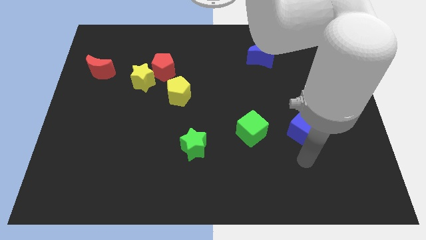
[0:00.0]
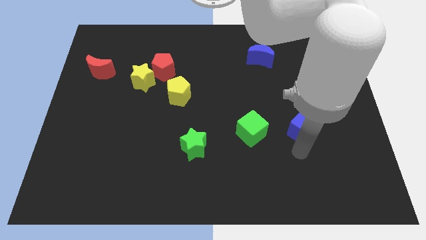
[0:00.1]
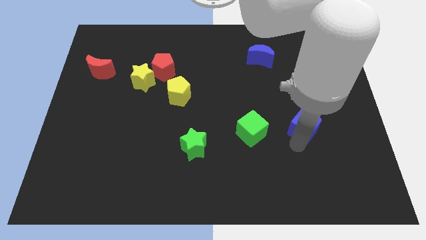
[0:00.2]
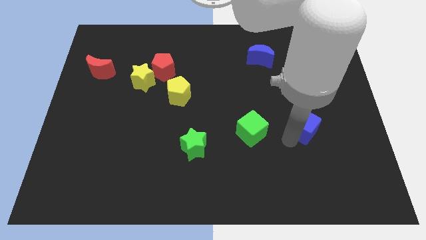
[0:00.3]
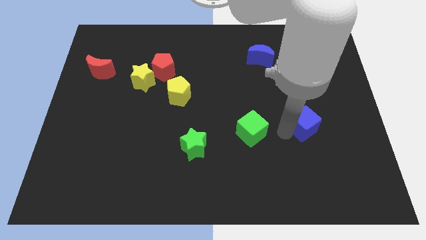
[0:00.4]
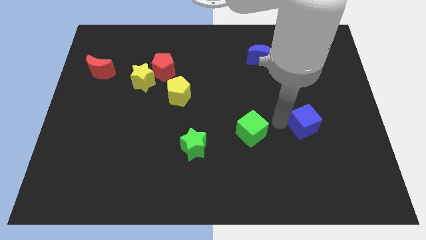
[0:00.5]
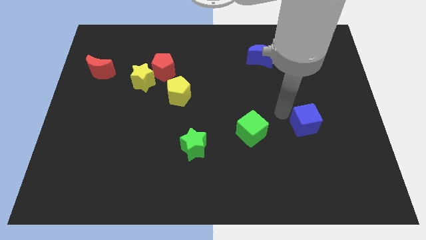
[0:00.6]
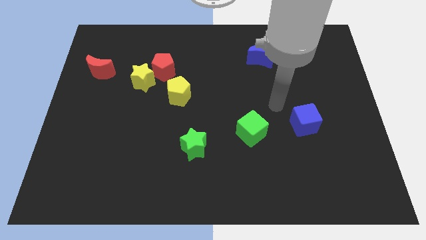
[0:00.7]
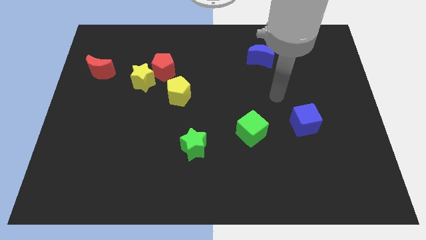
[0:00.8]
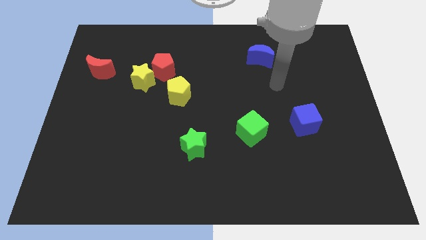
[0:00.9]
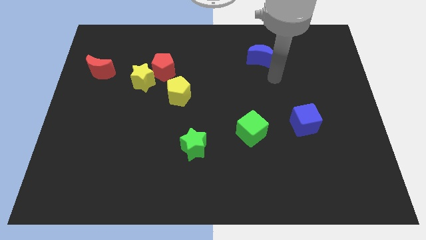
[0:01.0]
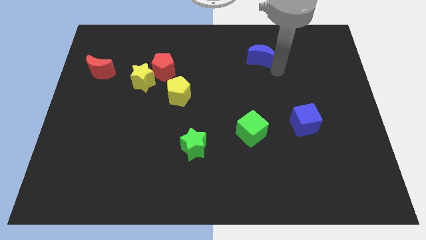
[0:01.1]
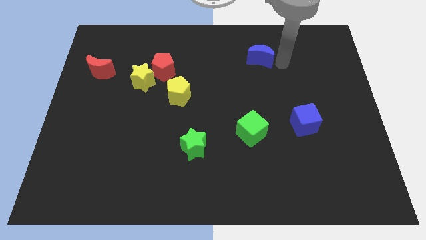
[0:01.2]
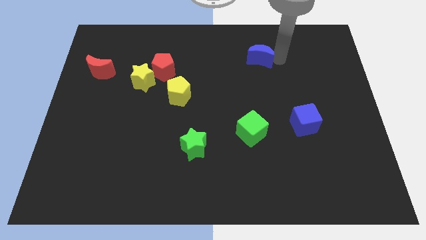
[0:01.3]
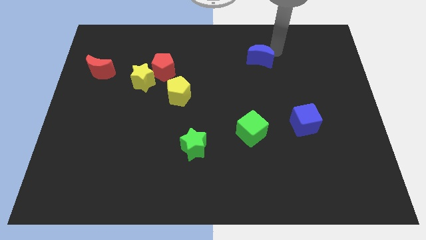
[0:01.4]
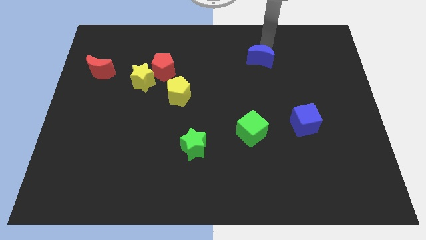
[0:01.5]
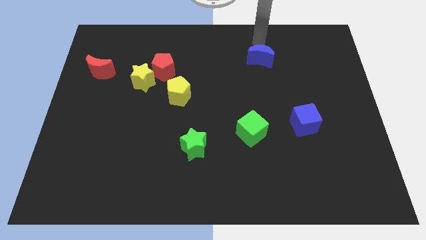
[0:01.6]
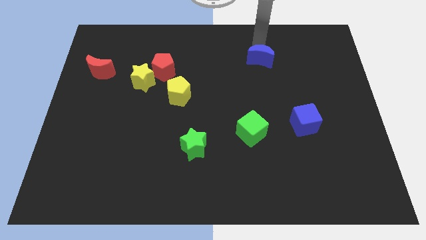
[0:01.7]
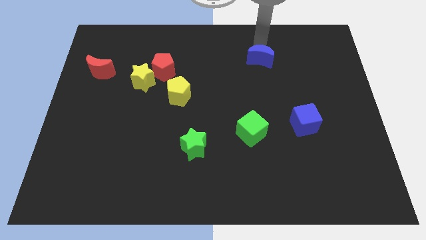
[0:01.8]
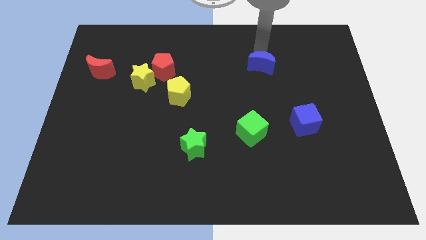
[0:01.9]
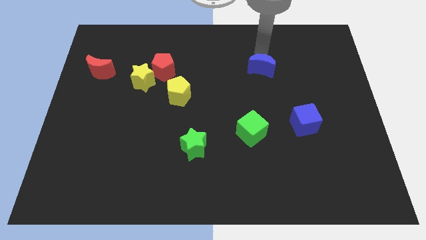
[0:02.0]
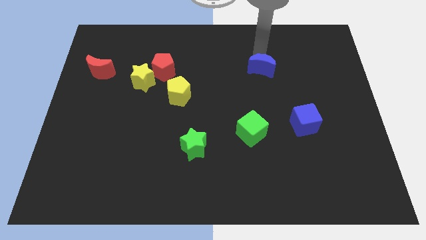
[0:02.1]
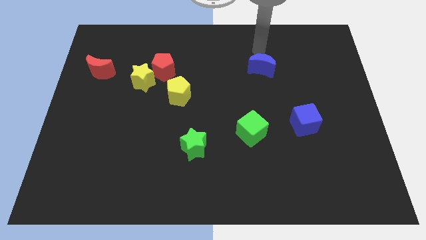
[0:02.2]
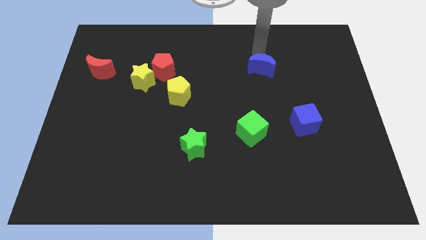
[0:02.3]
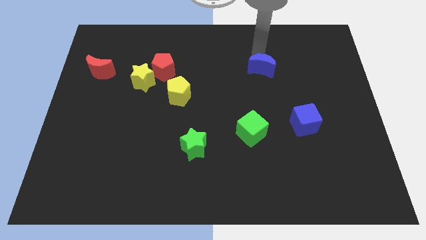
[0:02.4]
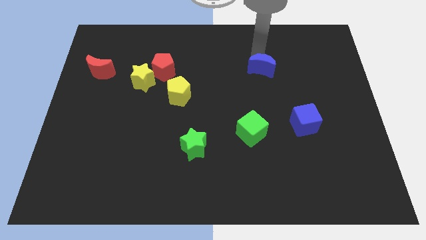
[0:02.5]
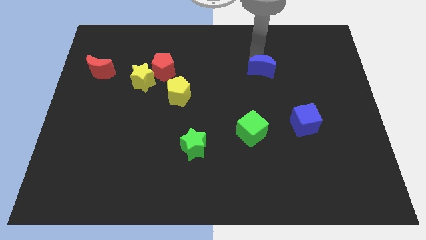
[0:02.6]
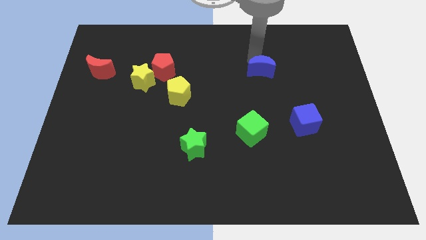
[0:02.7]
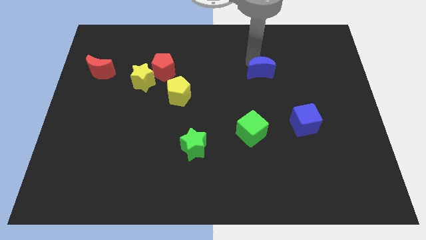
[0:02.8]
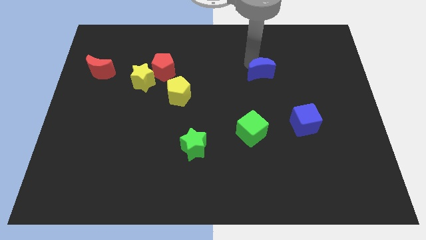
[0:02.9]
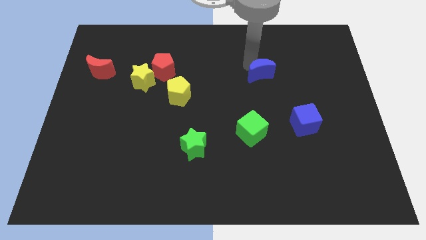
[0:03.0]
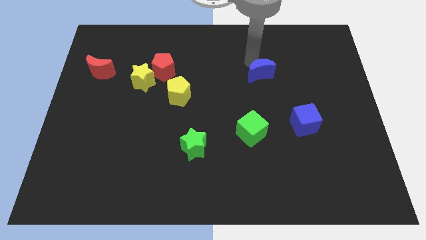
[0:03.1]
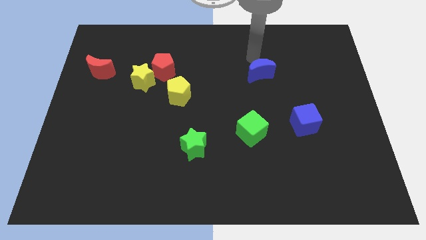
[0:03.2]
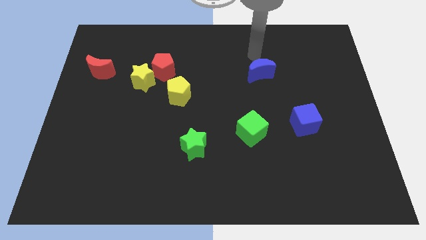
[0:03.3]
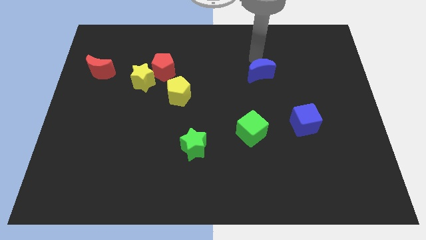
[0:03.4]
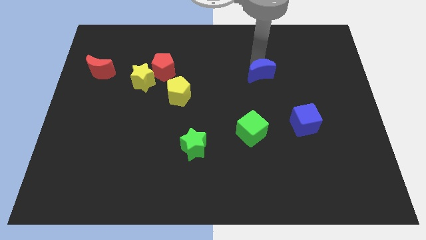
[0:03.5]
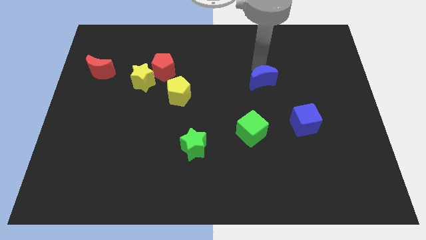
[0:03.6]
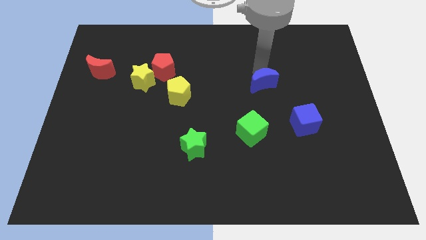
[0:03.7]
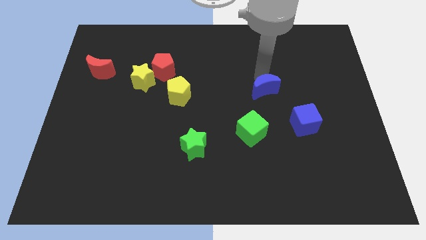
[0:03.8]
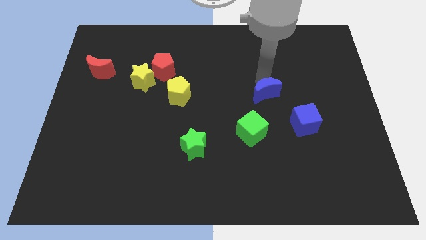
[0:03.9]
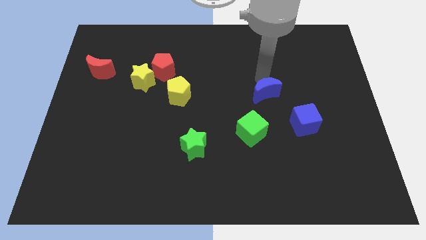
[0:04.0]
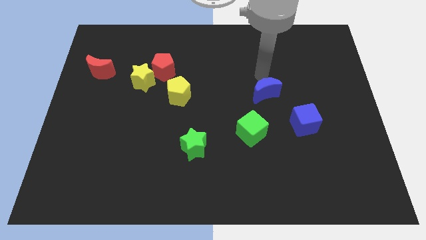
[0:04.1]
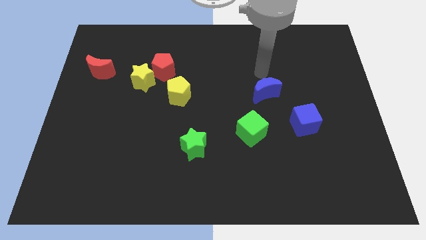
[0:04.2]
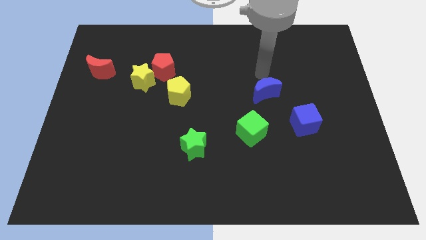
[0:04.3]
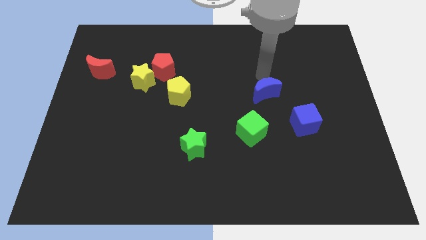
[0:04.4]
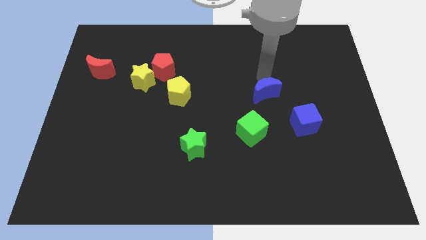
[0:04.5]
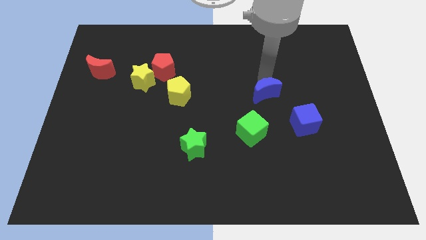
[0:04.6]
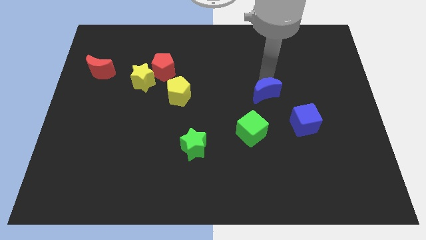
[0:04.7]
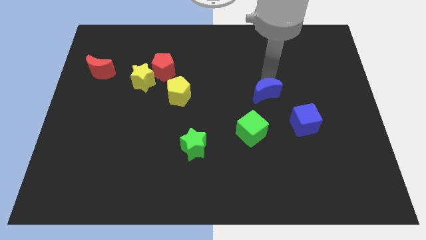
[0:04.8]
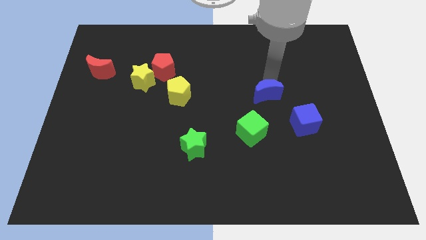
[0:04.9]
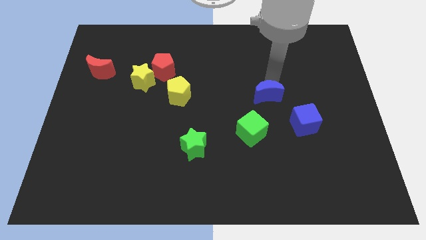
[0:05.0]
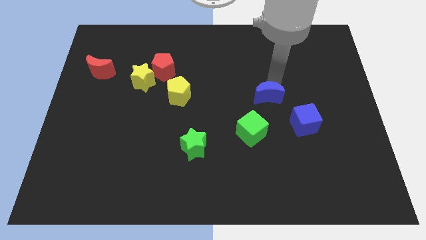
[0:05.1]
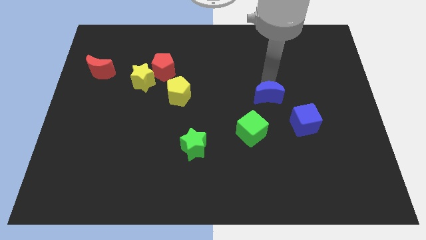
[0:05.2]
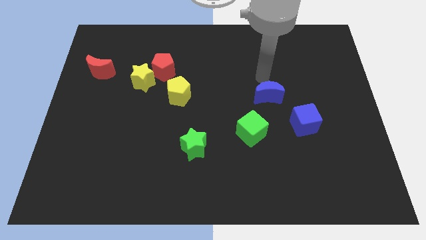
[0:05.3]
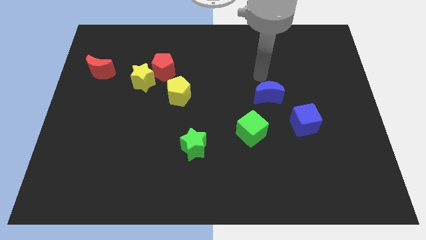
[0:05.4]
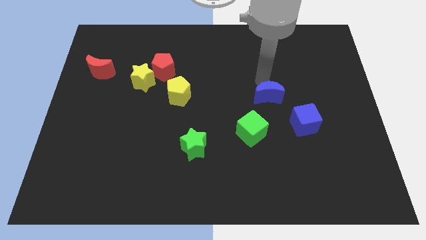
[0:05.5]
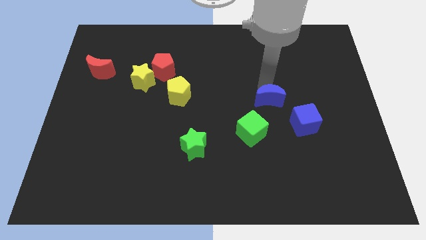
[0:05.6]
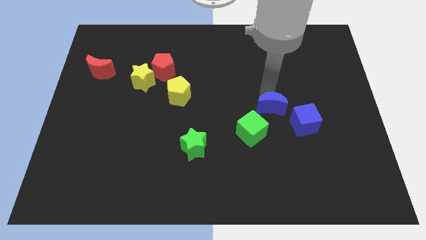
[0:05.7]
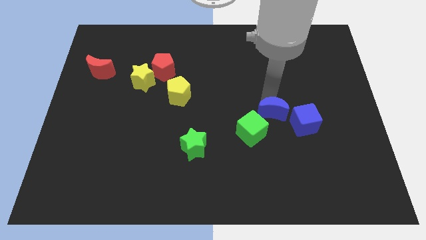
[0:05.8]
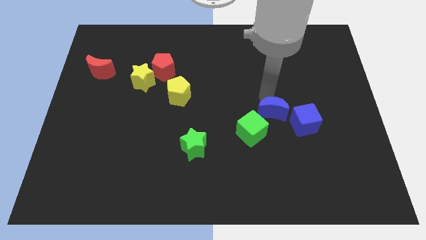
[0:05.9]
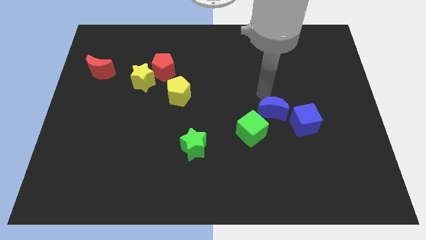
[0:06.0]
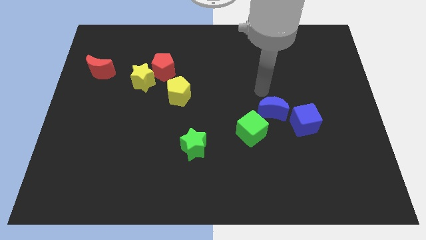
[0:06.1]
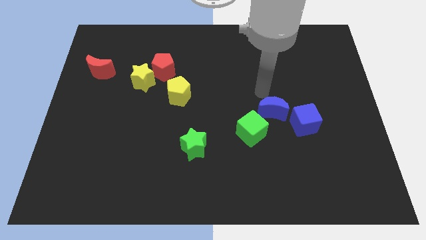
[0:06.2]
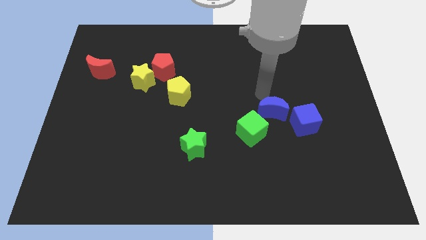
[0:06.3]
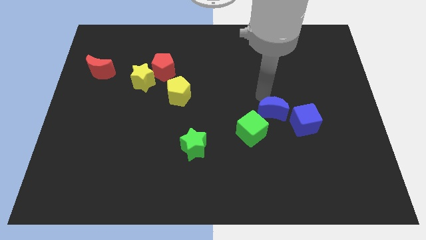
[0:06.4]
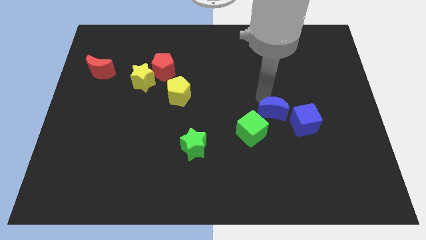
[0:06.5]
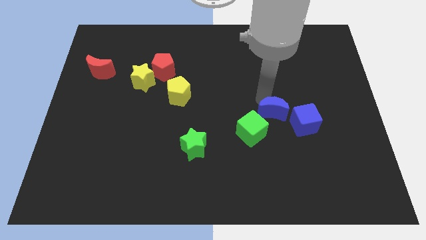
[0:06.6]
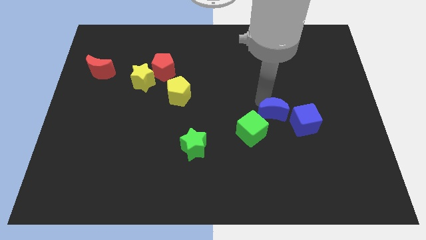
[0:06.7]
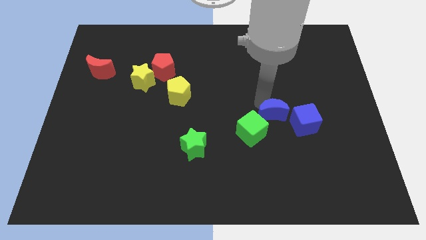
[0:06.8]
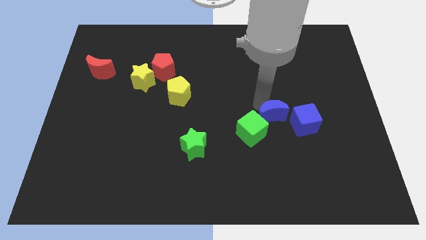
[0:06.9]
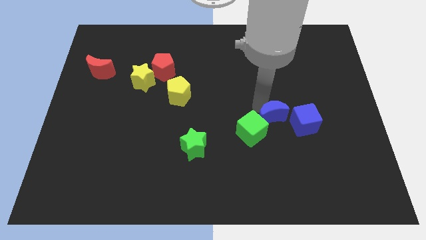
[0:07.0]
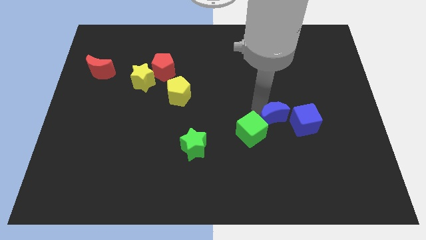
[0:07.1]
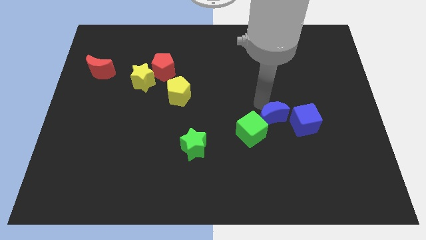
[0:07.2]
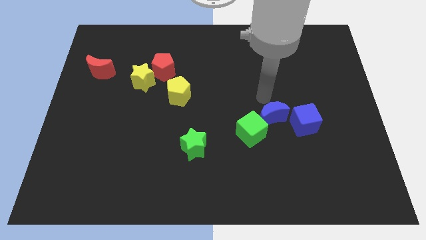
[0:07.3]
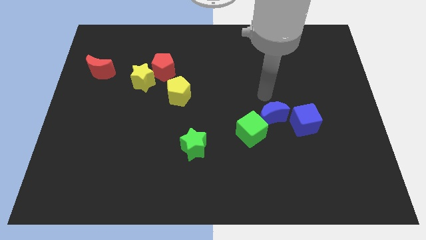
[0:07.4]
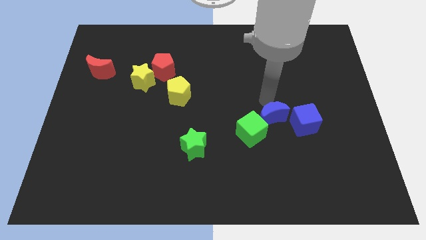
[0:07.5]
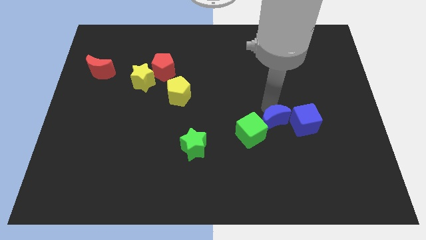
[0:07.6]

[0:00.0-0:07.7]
move the blue moon downwards

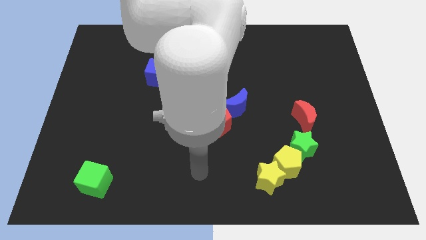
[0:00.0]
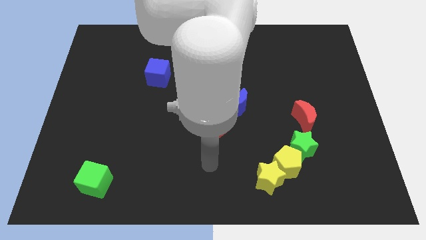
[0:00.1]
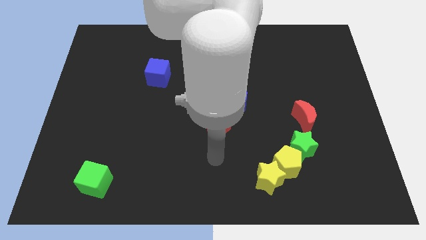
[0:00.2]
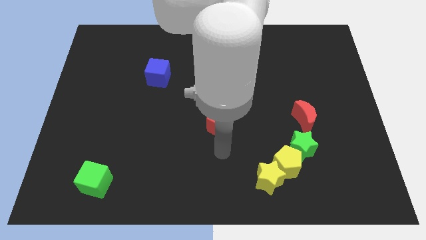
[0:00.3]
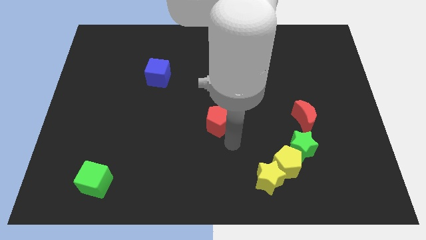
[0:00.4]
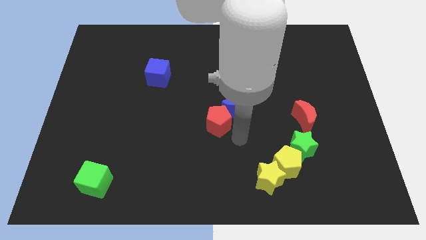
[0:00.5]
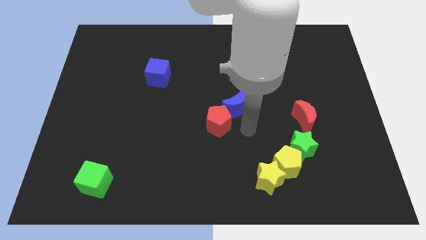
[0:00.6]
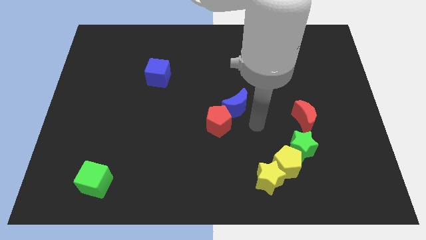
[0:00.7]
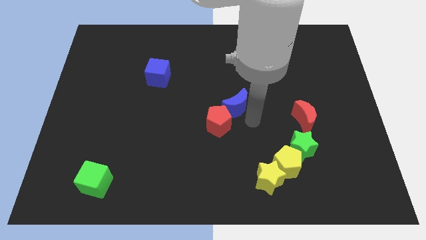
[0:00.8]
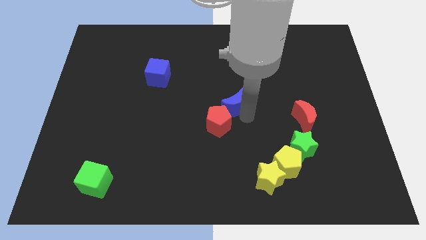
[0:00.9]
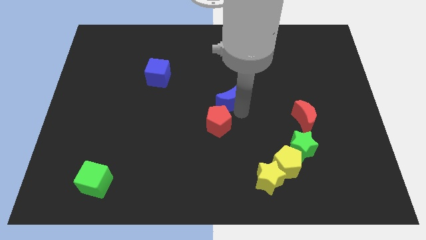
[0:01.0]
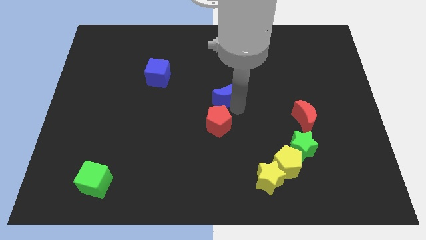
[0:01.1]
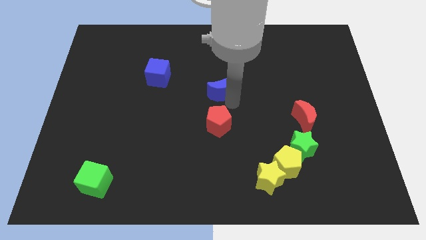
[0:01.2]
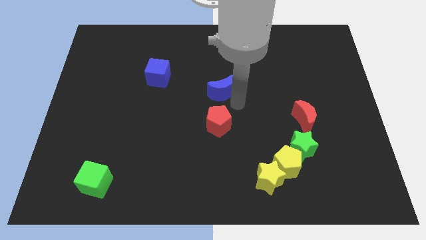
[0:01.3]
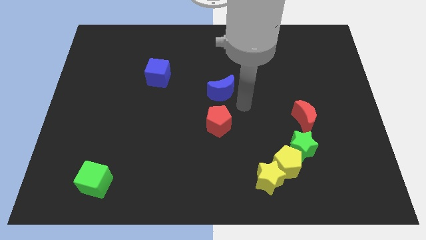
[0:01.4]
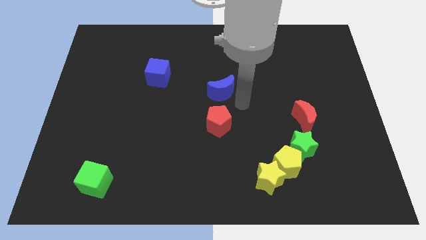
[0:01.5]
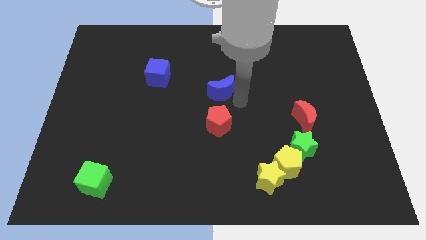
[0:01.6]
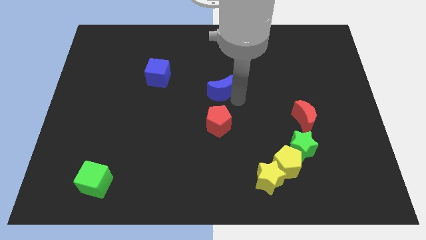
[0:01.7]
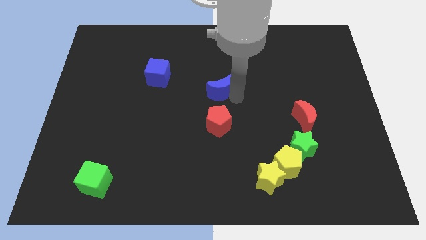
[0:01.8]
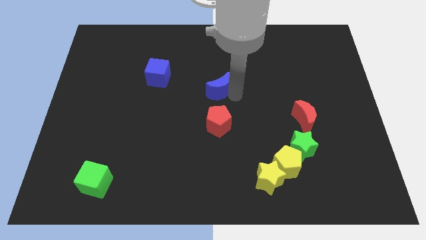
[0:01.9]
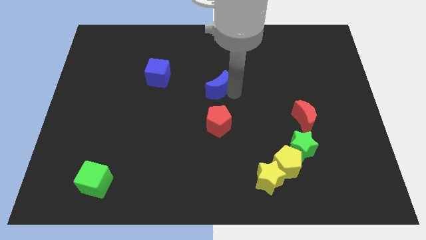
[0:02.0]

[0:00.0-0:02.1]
move the blue moon somewhat diagonally upwards and left
